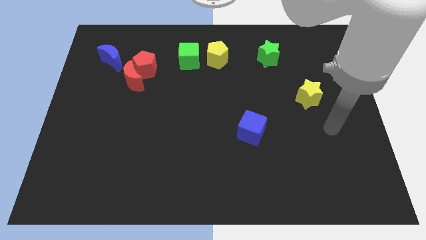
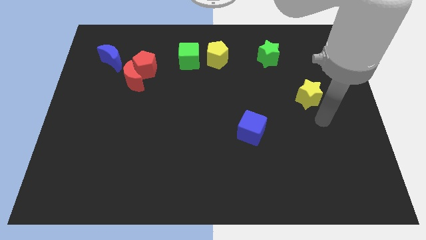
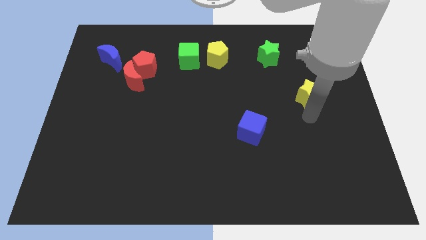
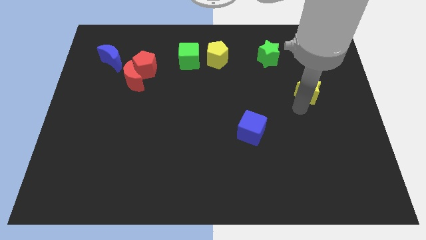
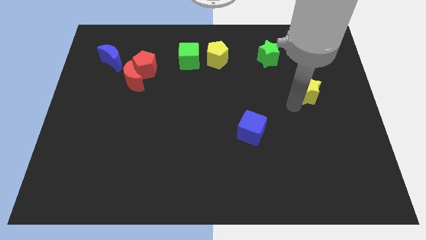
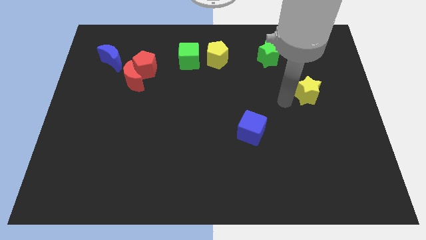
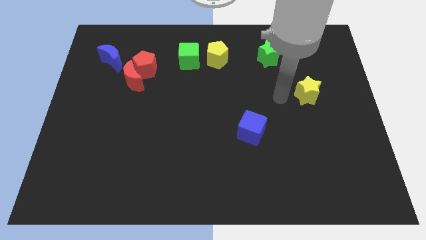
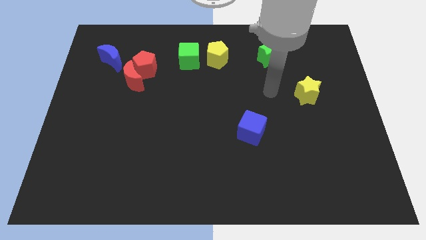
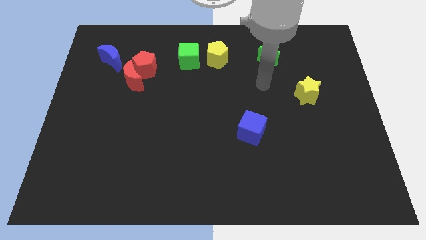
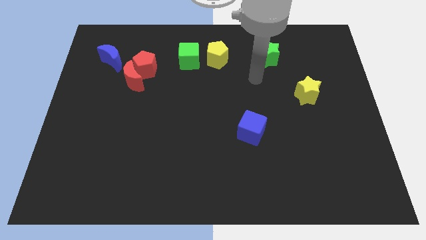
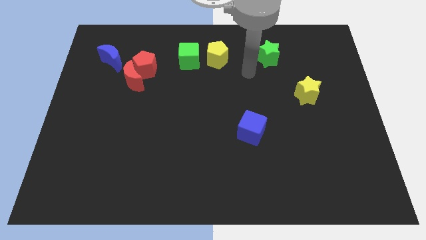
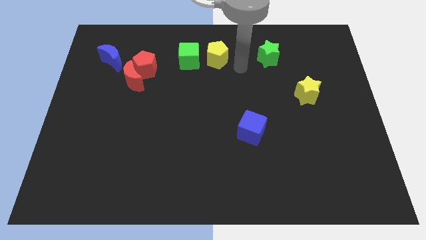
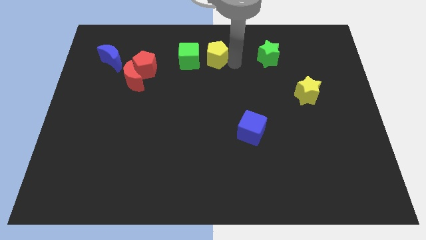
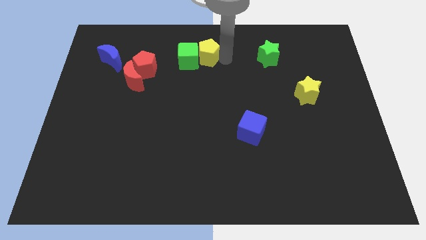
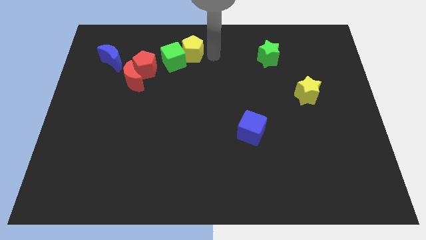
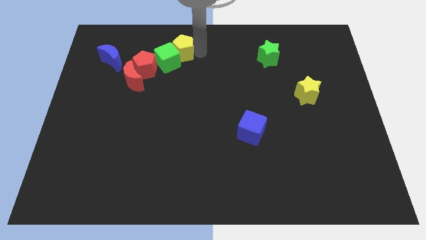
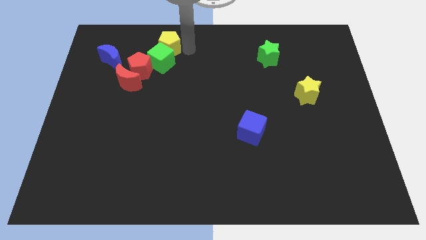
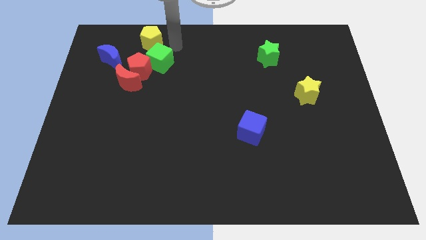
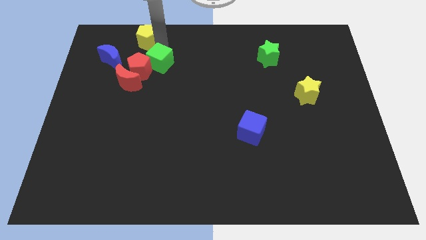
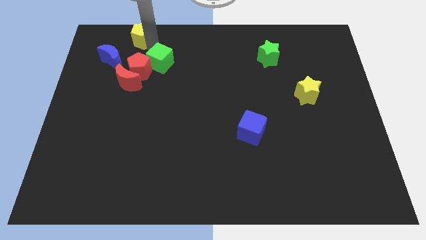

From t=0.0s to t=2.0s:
pull the green cube apart from the yellow pentagon

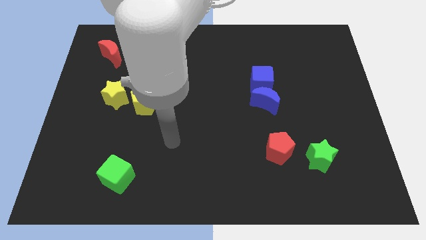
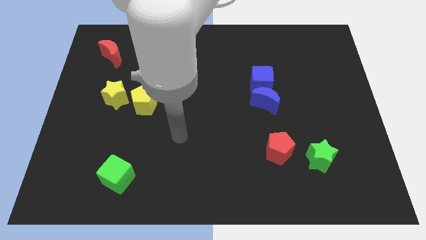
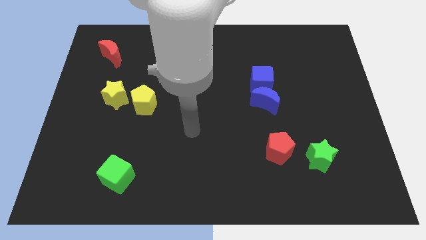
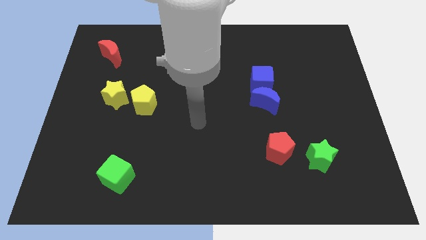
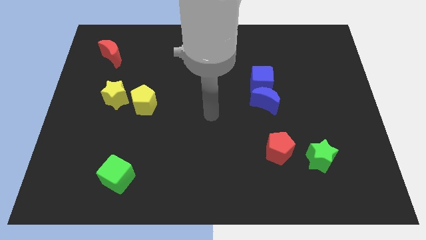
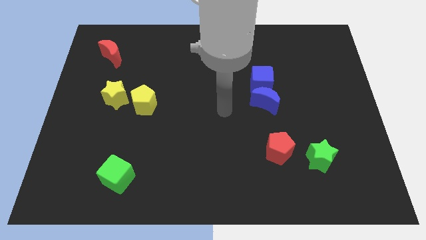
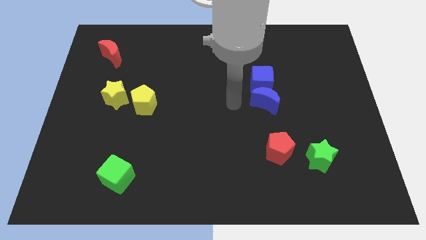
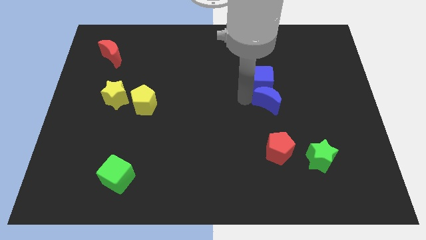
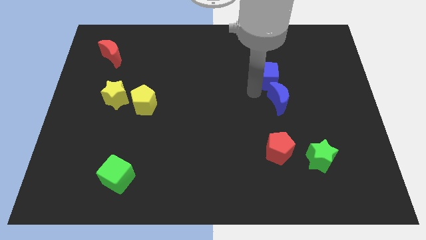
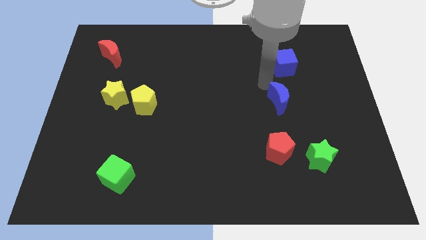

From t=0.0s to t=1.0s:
separate the blue moon from the blue cube

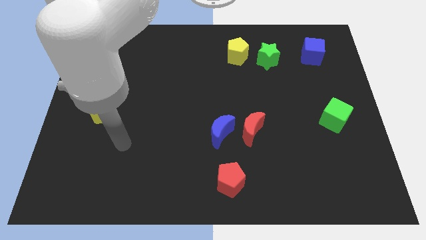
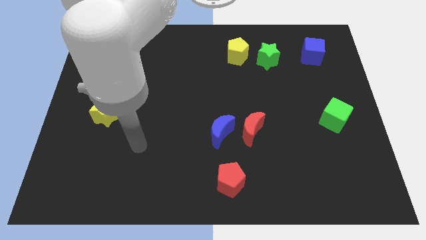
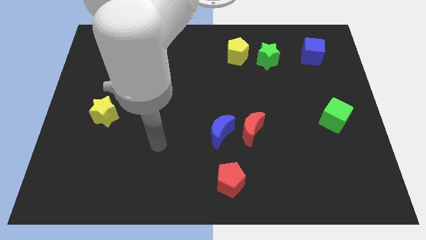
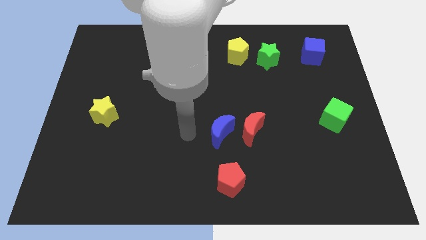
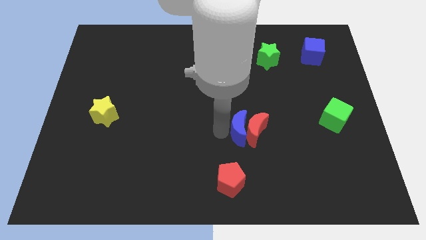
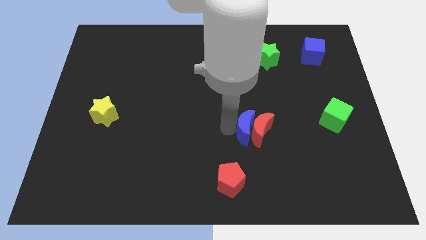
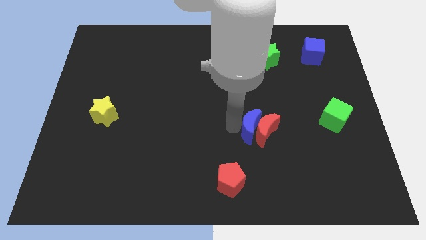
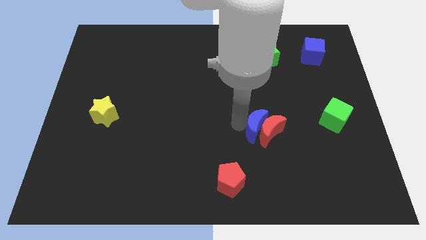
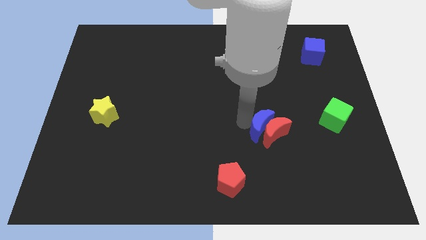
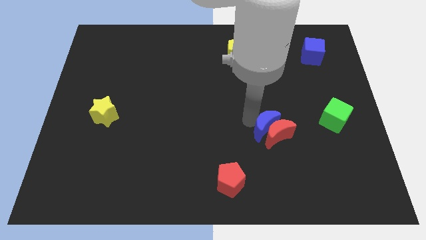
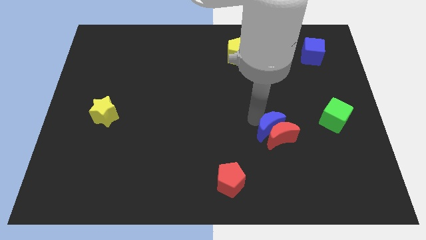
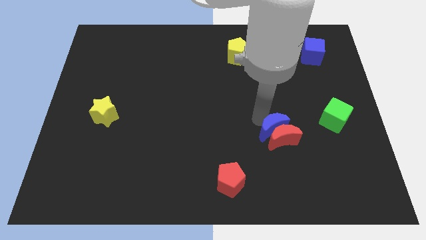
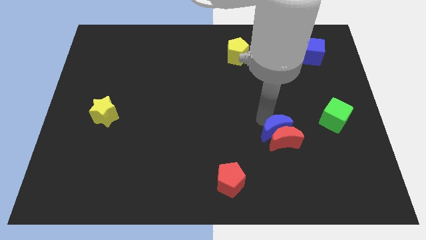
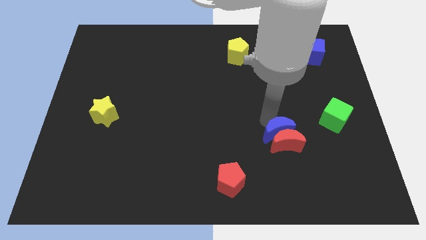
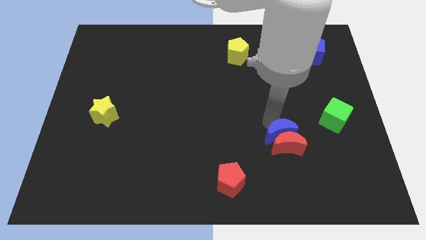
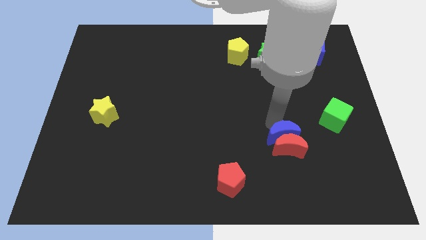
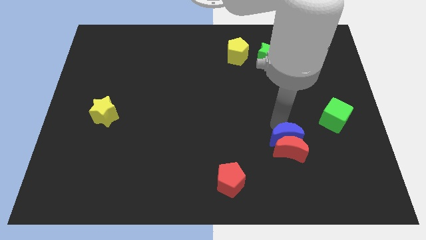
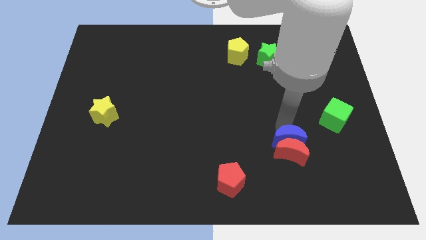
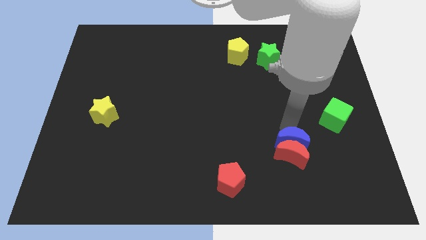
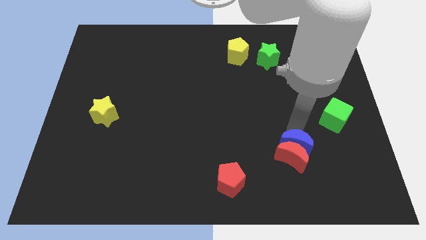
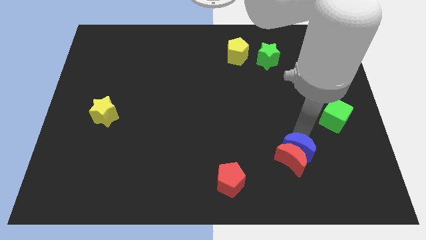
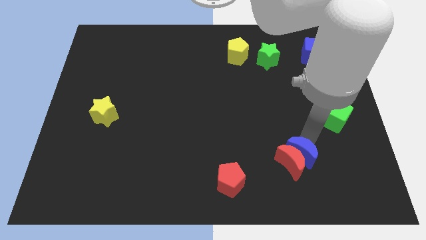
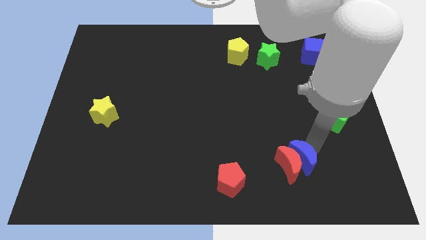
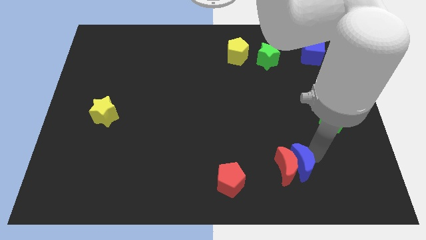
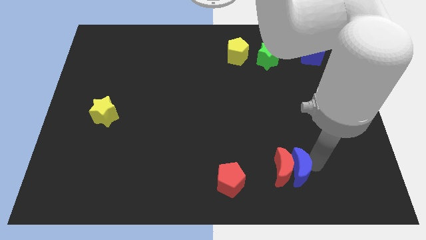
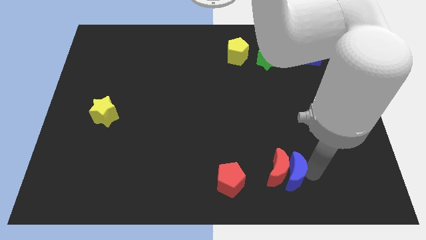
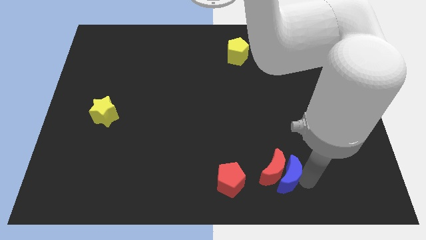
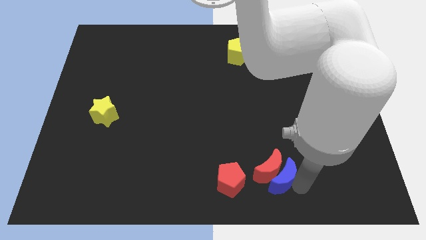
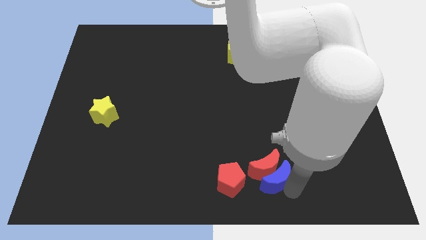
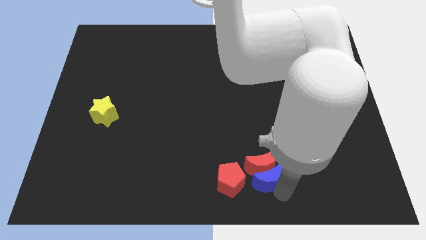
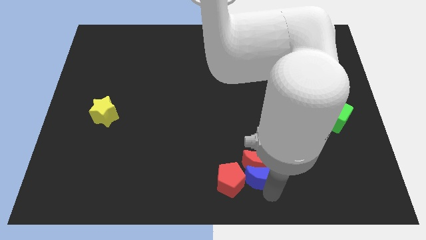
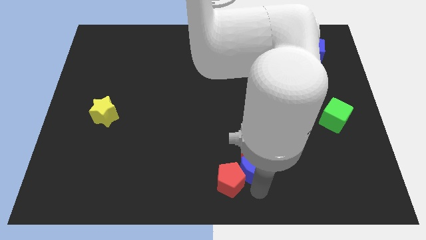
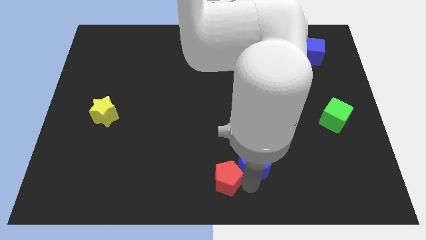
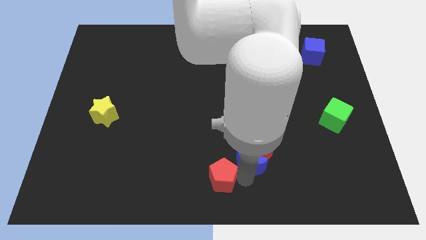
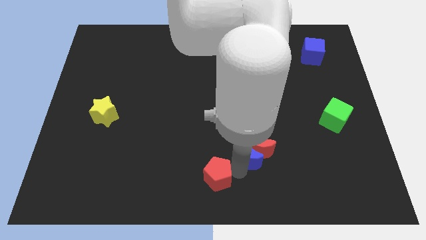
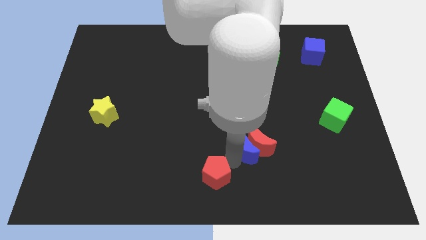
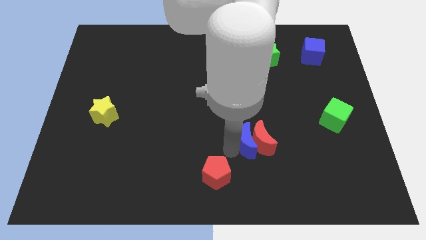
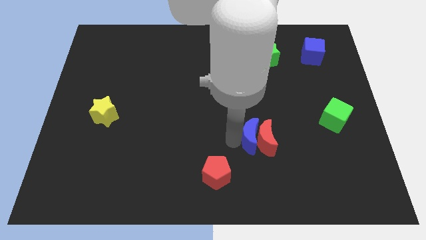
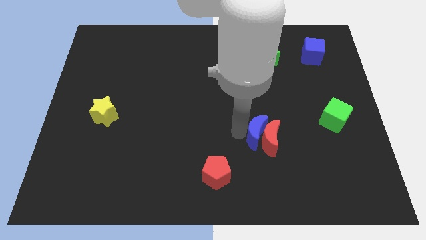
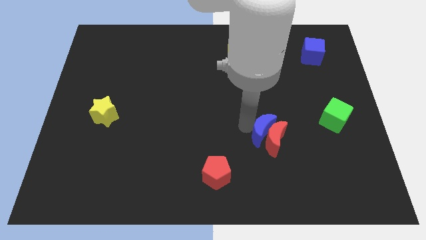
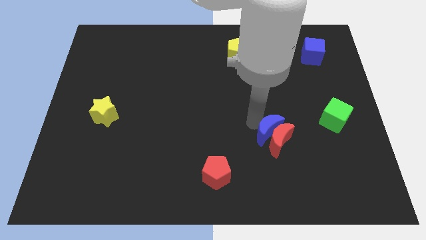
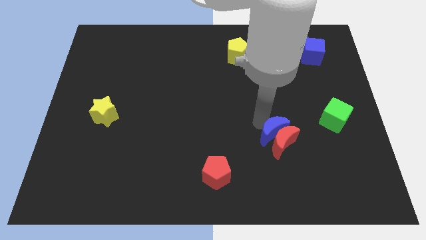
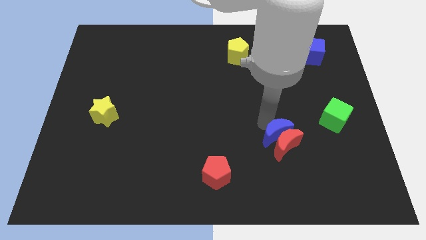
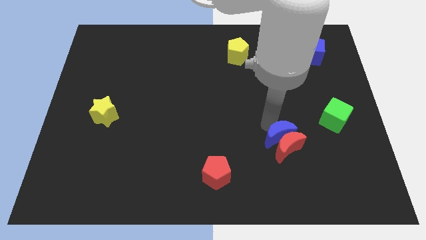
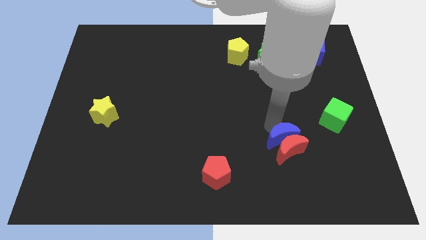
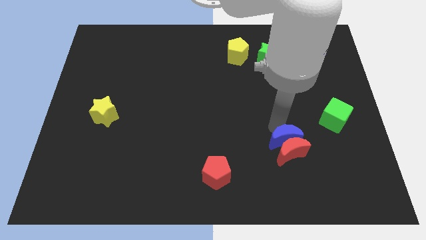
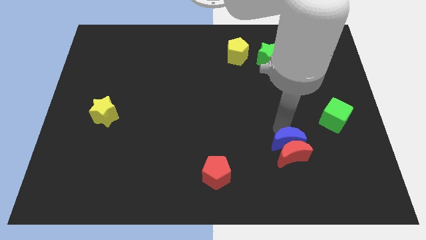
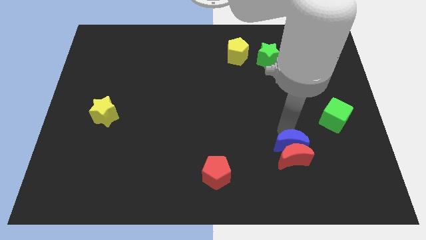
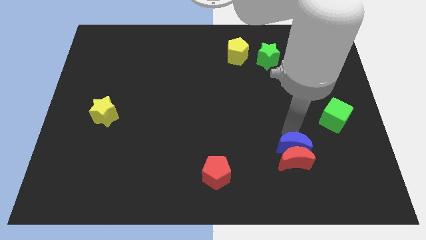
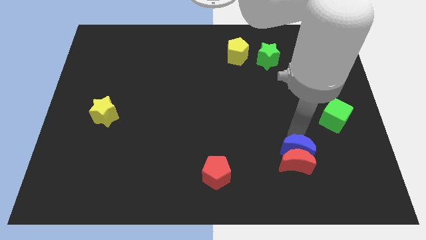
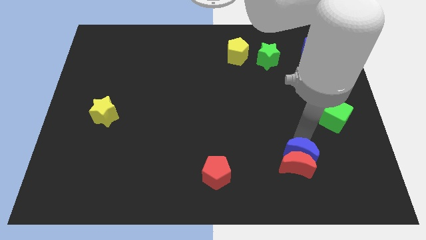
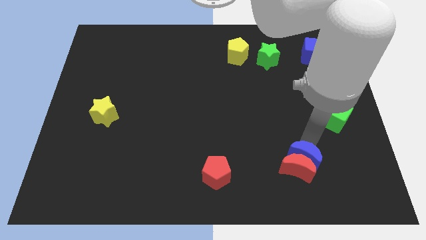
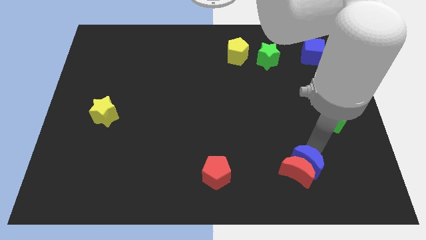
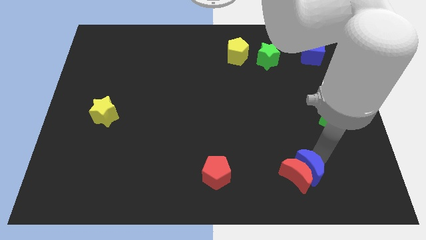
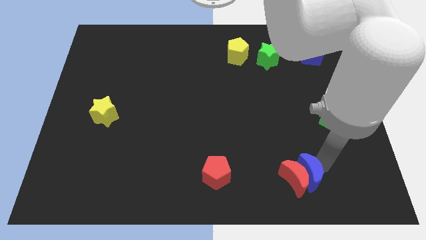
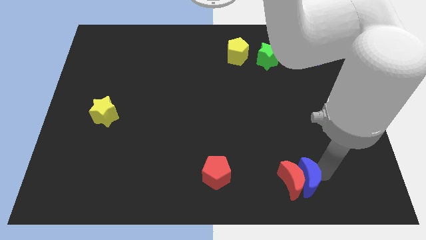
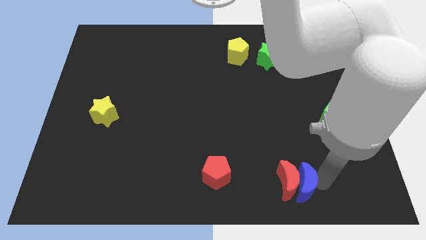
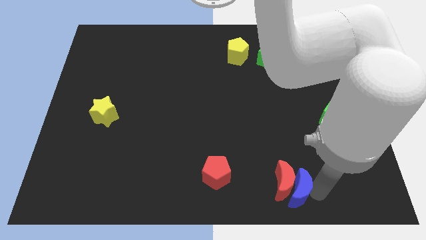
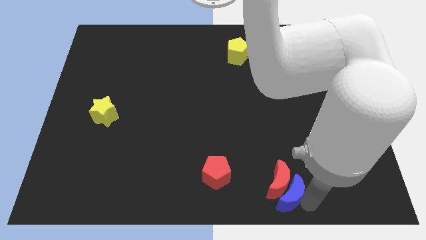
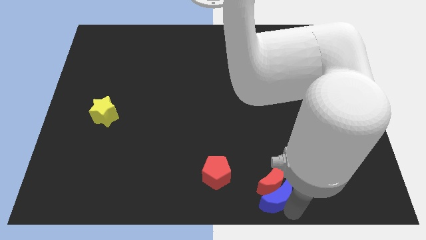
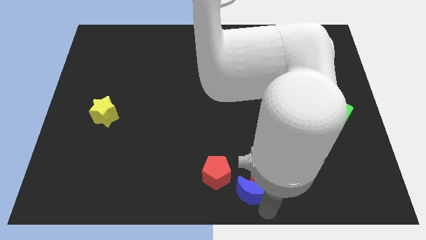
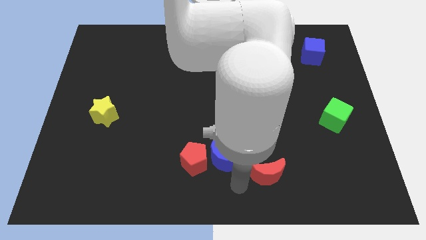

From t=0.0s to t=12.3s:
separate the red moon from the blue moon
